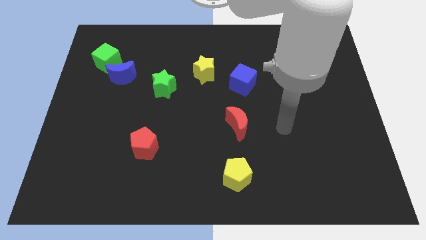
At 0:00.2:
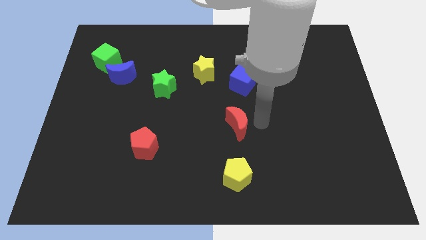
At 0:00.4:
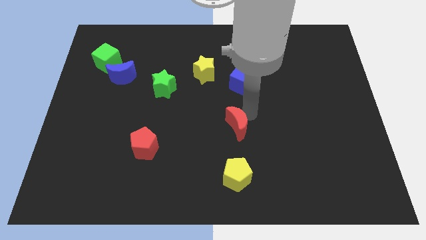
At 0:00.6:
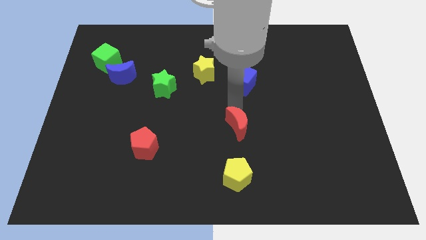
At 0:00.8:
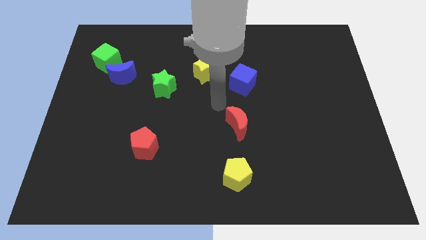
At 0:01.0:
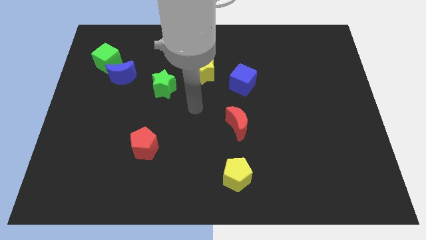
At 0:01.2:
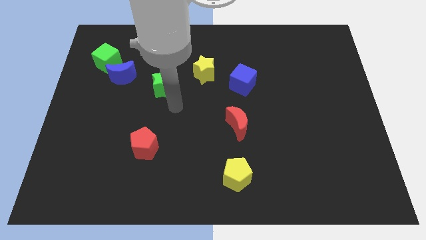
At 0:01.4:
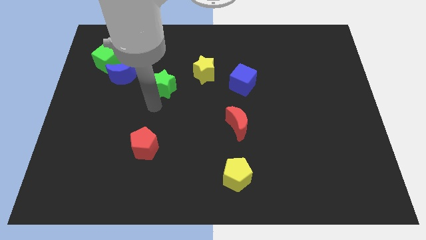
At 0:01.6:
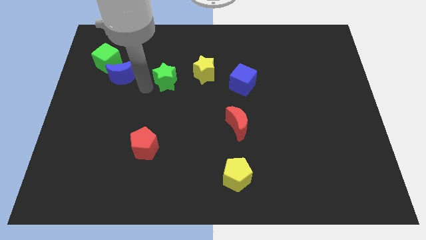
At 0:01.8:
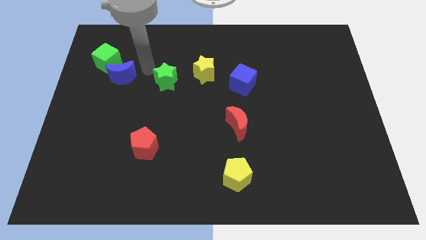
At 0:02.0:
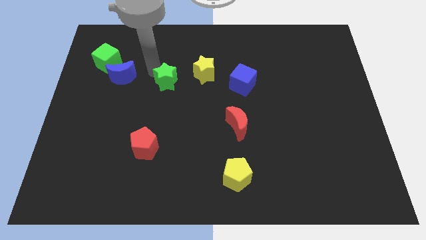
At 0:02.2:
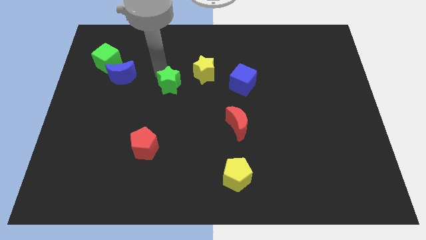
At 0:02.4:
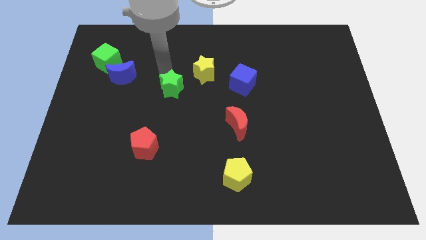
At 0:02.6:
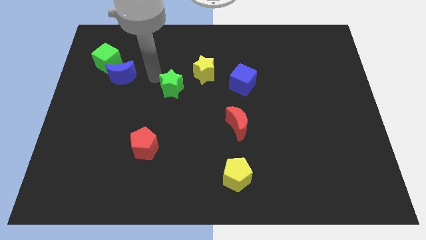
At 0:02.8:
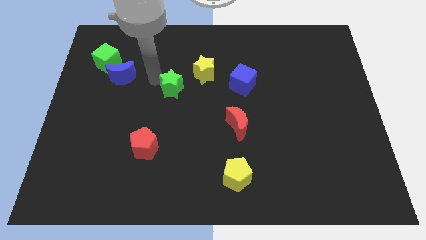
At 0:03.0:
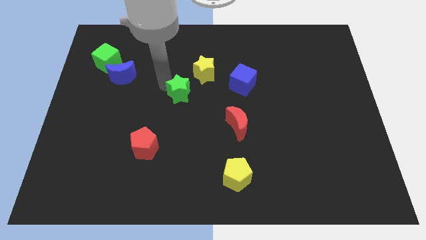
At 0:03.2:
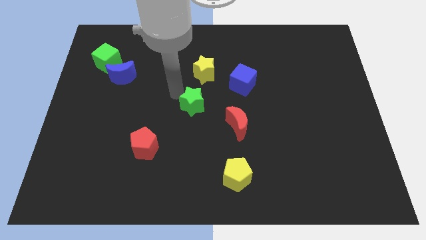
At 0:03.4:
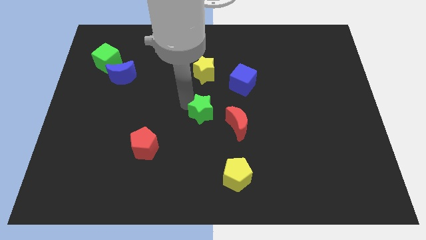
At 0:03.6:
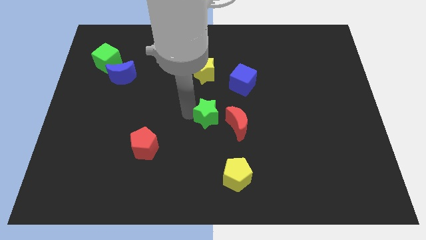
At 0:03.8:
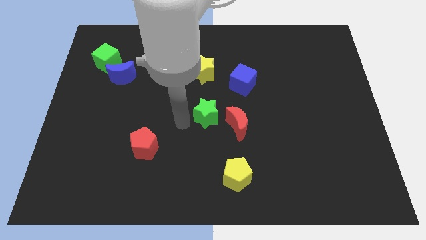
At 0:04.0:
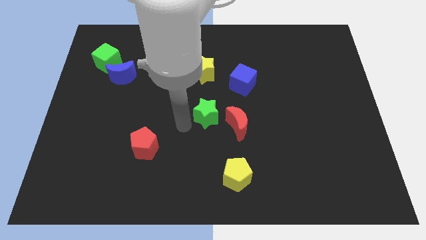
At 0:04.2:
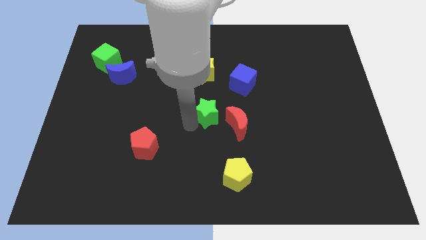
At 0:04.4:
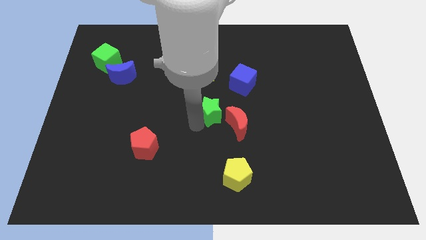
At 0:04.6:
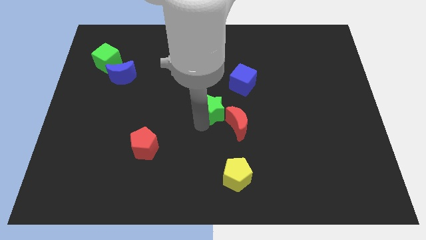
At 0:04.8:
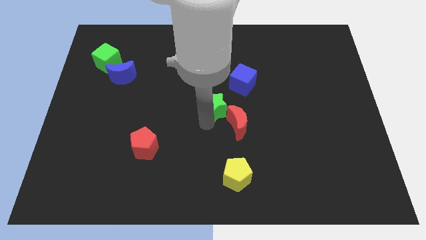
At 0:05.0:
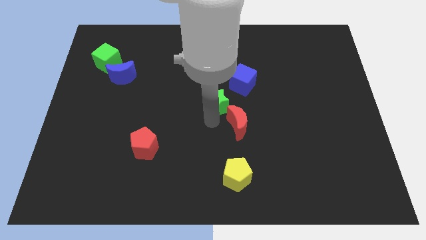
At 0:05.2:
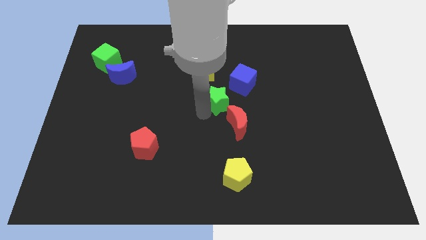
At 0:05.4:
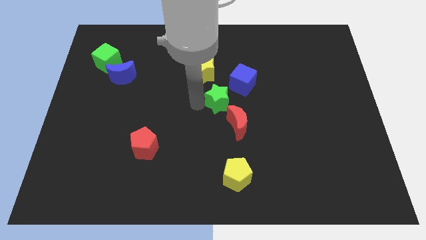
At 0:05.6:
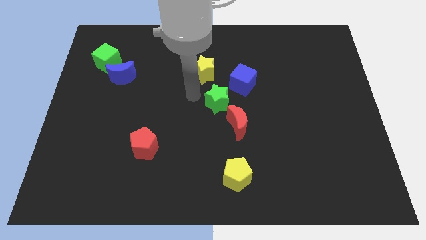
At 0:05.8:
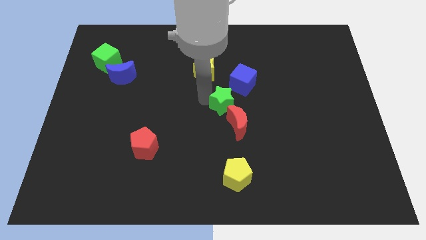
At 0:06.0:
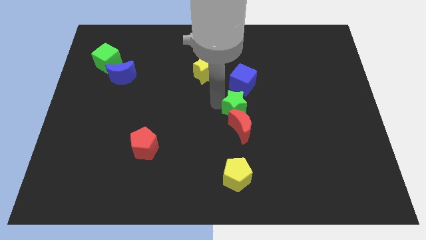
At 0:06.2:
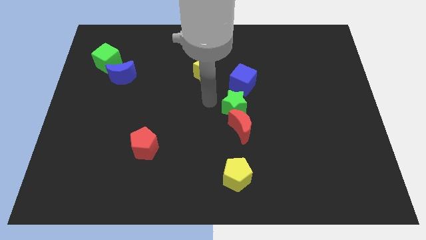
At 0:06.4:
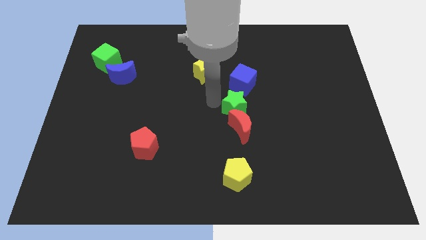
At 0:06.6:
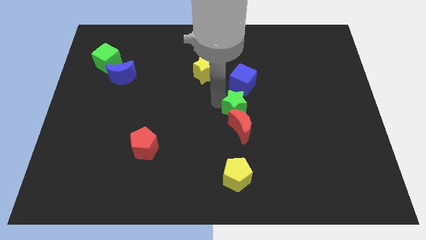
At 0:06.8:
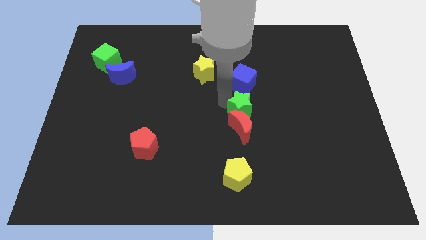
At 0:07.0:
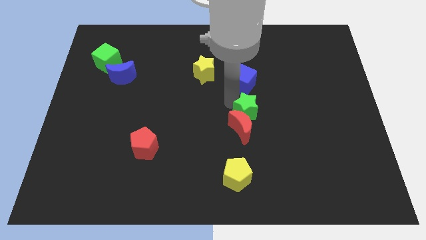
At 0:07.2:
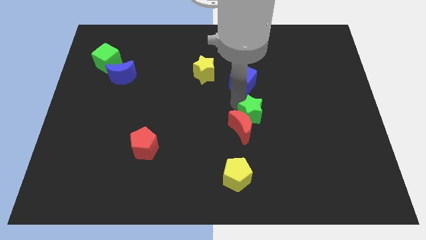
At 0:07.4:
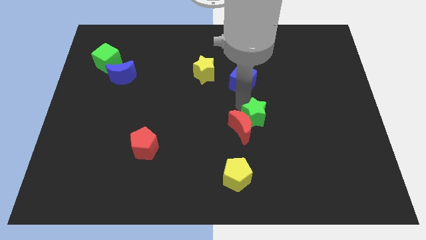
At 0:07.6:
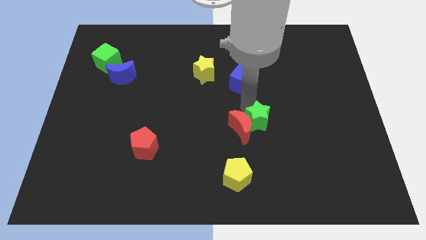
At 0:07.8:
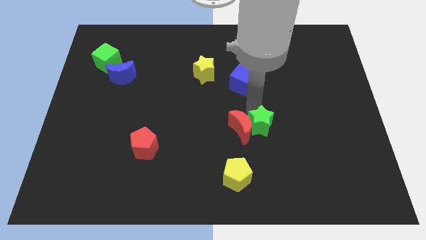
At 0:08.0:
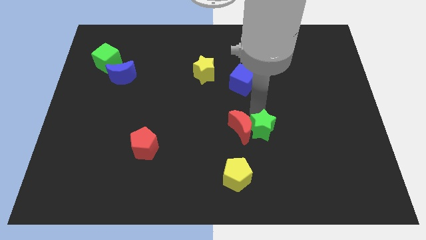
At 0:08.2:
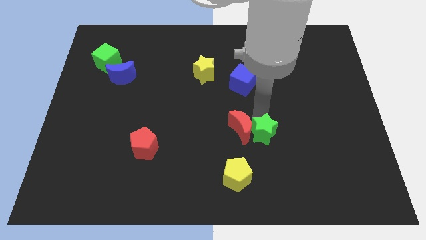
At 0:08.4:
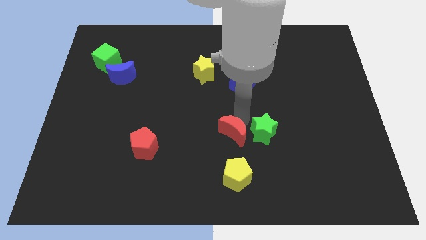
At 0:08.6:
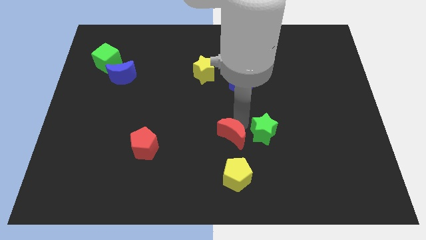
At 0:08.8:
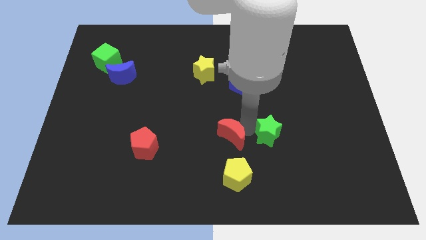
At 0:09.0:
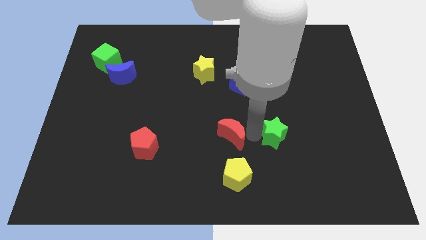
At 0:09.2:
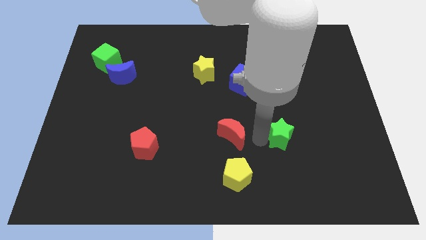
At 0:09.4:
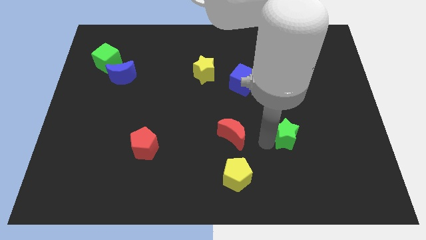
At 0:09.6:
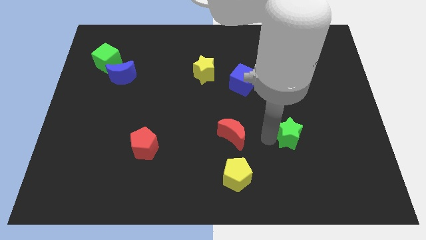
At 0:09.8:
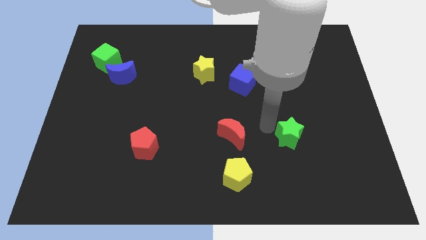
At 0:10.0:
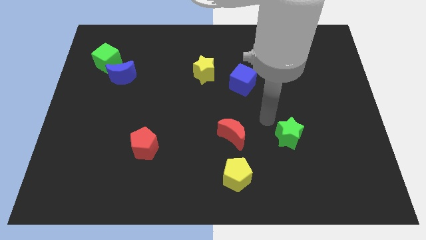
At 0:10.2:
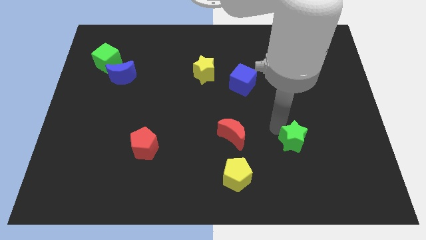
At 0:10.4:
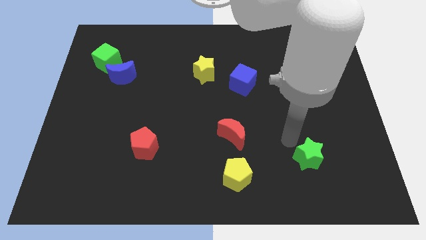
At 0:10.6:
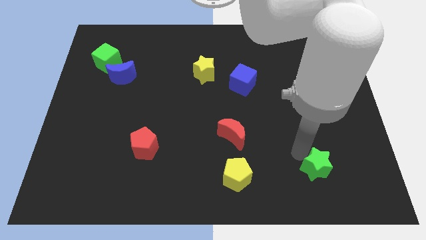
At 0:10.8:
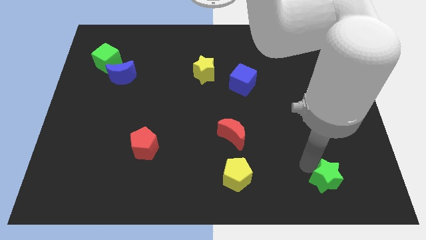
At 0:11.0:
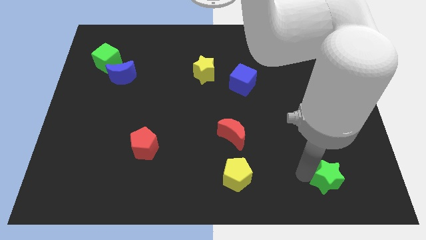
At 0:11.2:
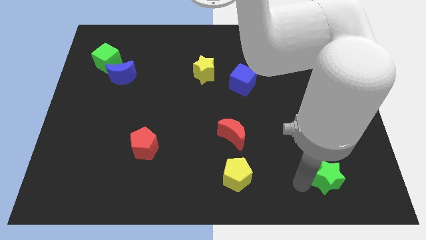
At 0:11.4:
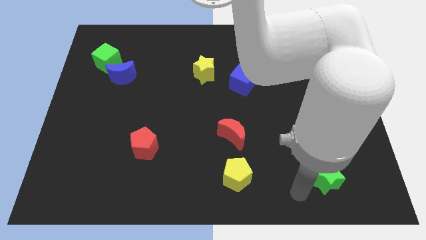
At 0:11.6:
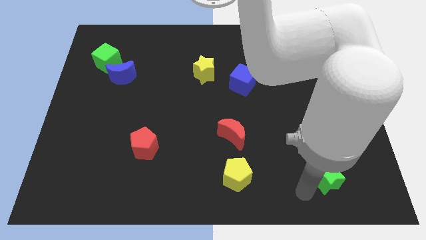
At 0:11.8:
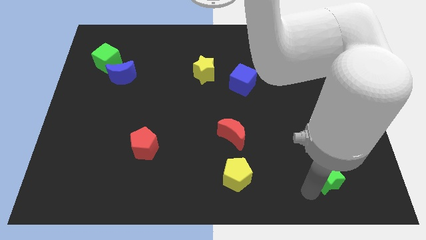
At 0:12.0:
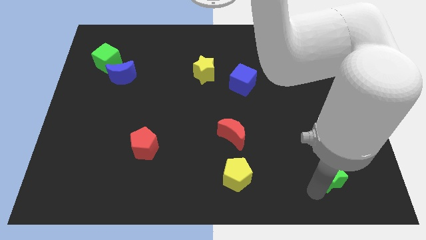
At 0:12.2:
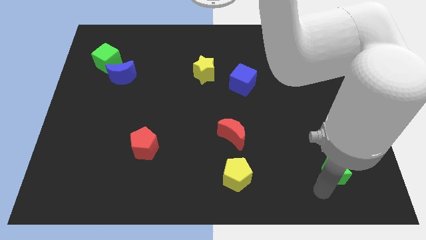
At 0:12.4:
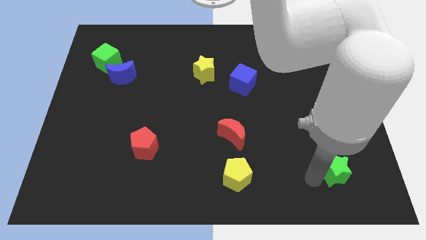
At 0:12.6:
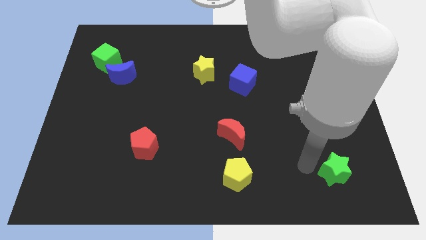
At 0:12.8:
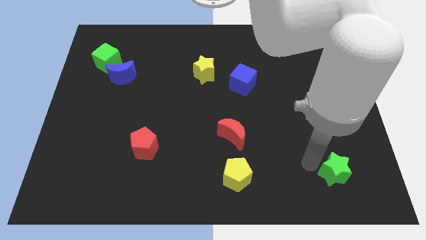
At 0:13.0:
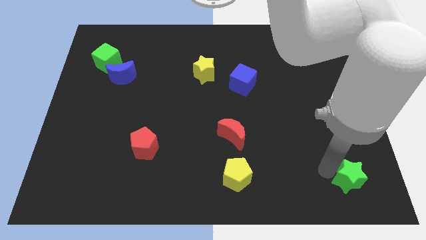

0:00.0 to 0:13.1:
slide the green star to the bottom right corner

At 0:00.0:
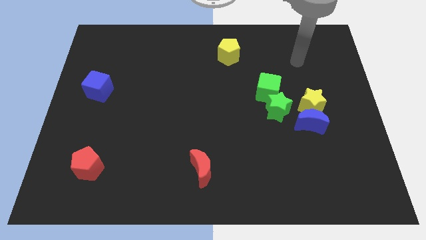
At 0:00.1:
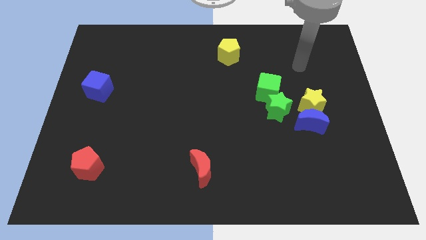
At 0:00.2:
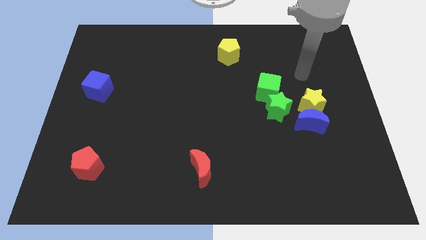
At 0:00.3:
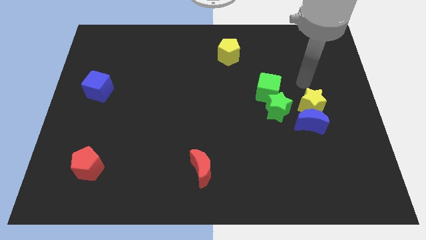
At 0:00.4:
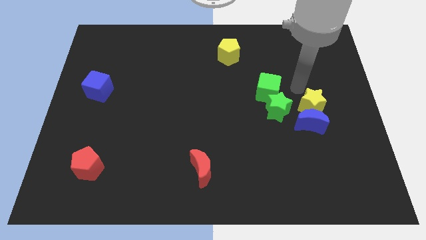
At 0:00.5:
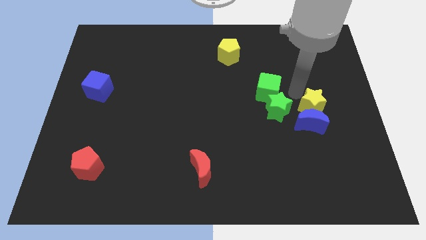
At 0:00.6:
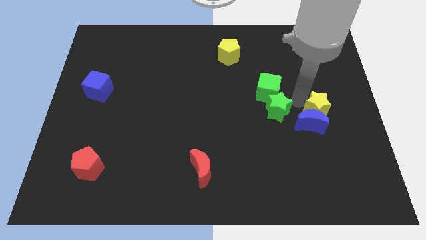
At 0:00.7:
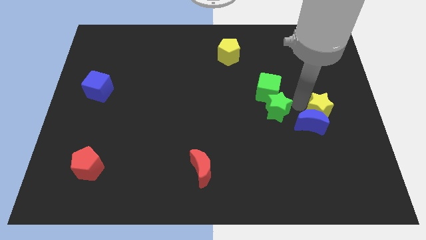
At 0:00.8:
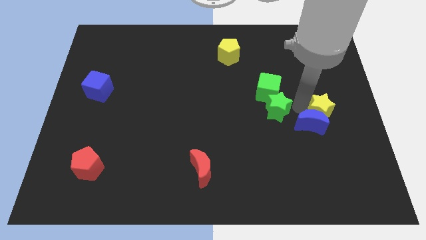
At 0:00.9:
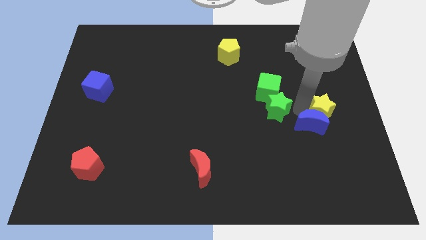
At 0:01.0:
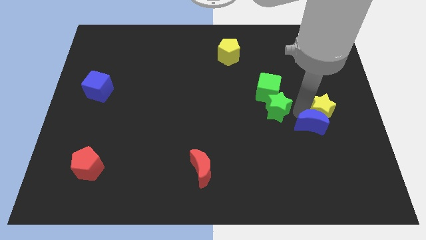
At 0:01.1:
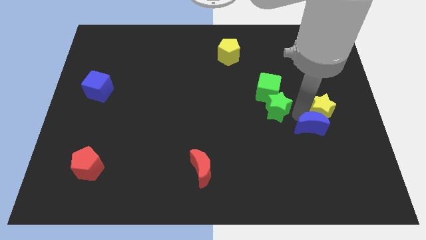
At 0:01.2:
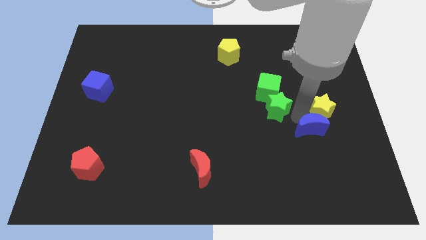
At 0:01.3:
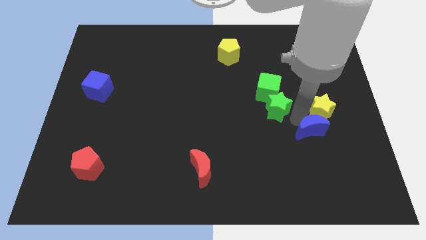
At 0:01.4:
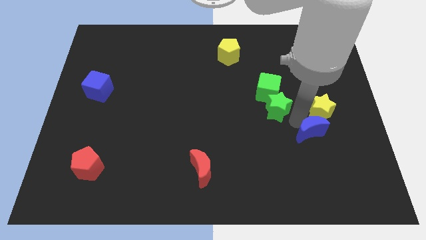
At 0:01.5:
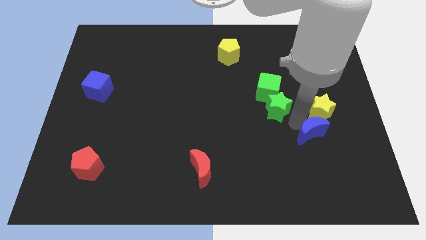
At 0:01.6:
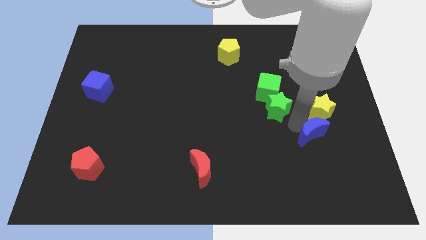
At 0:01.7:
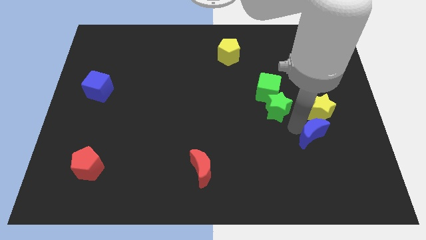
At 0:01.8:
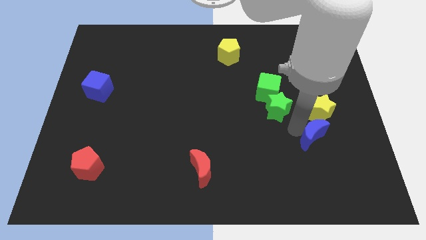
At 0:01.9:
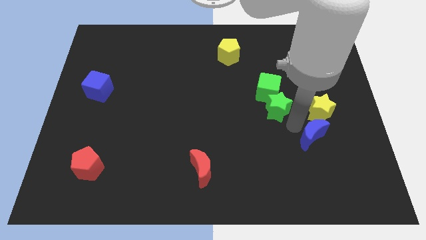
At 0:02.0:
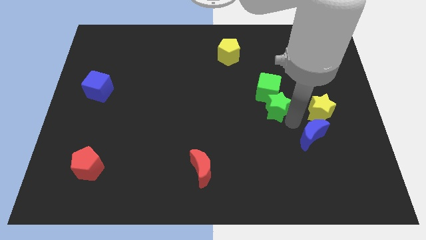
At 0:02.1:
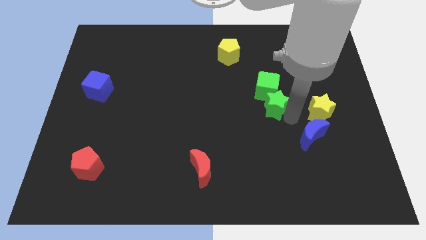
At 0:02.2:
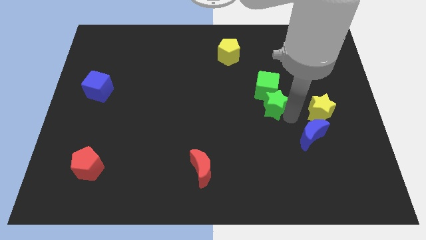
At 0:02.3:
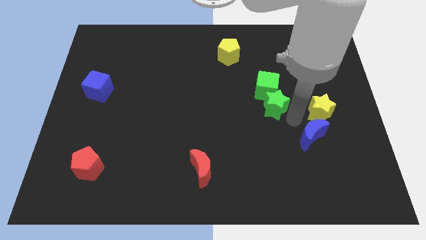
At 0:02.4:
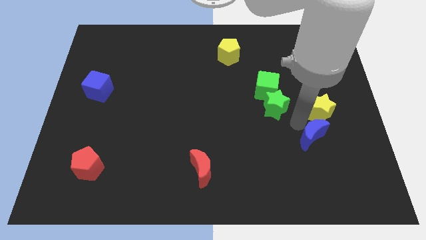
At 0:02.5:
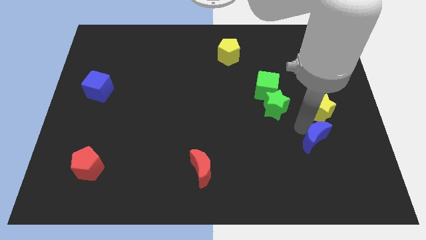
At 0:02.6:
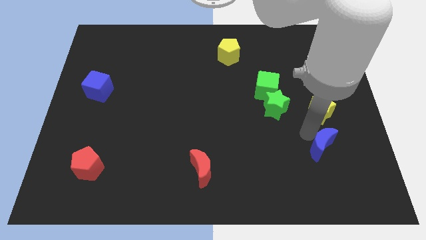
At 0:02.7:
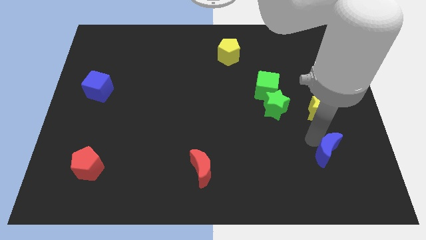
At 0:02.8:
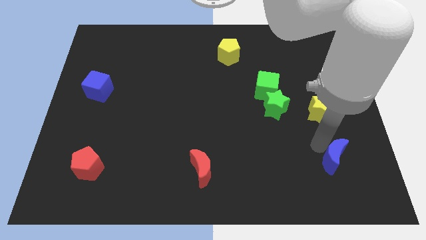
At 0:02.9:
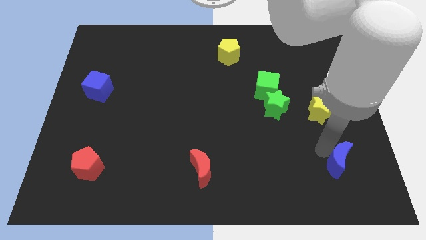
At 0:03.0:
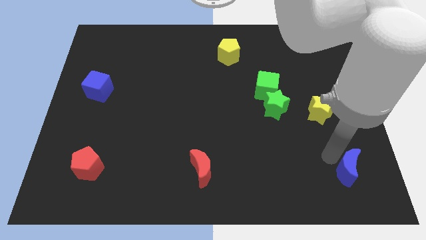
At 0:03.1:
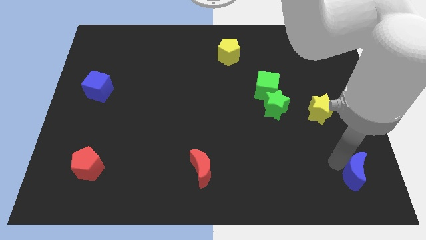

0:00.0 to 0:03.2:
put the blue moon to the bottom right corner
